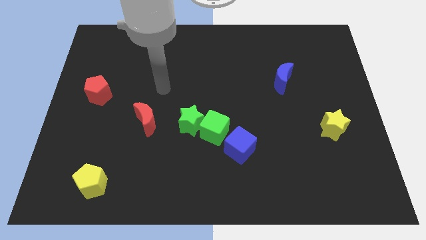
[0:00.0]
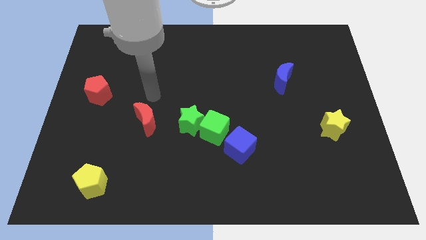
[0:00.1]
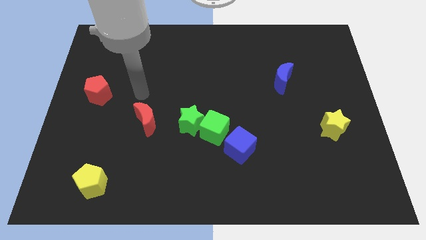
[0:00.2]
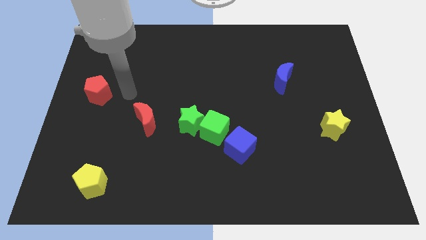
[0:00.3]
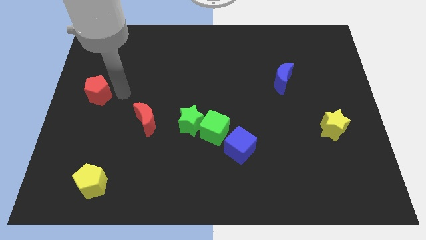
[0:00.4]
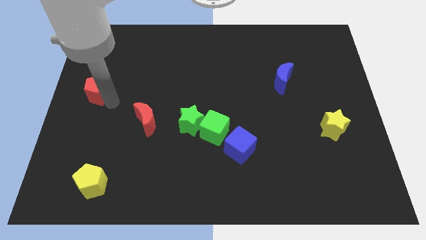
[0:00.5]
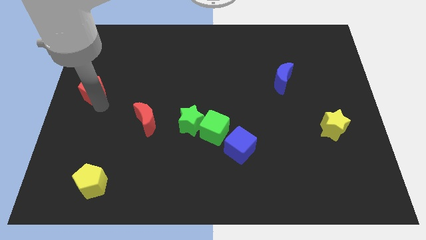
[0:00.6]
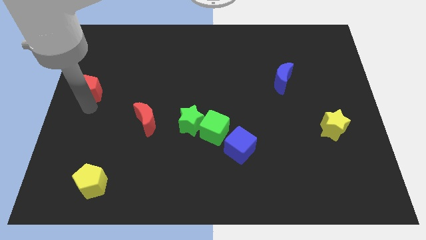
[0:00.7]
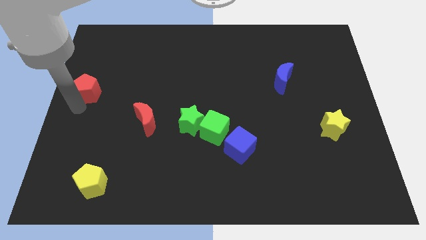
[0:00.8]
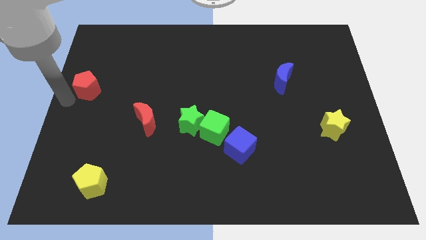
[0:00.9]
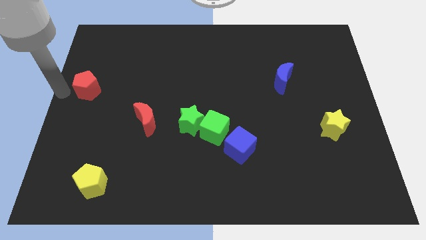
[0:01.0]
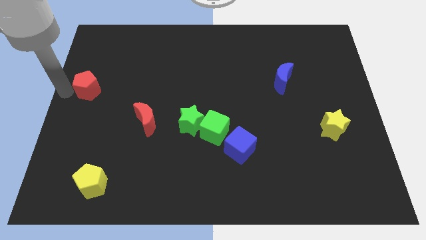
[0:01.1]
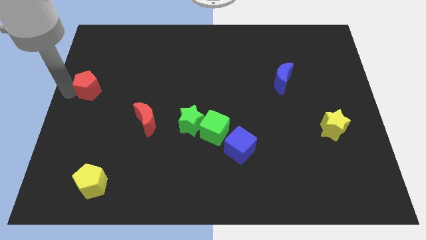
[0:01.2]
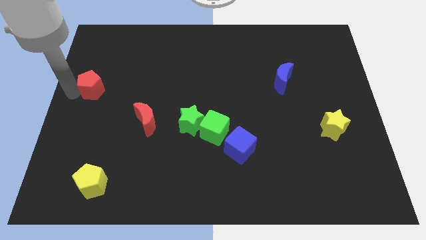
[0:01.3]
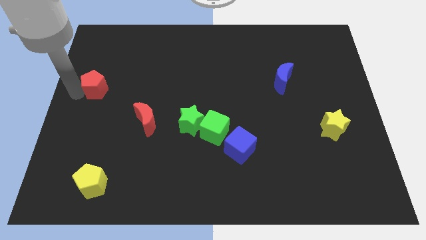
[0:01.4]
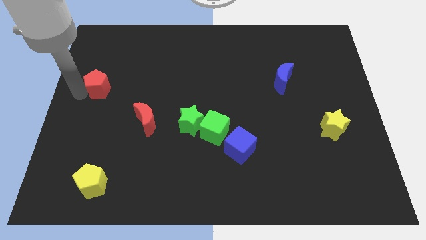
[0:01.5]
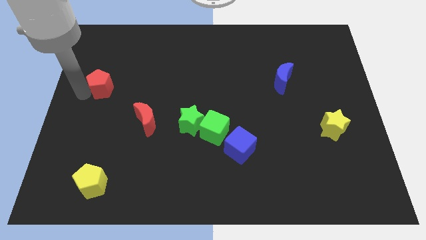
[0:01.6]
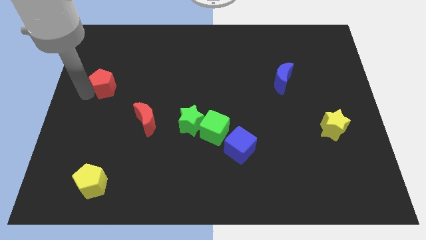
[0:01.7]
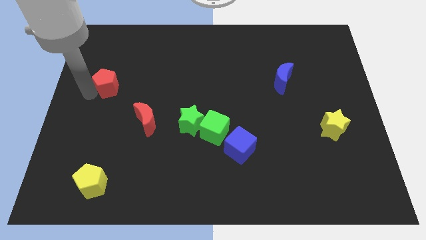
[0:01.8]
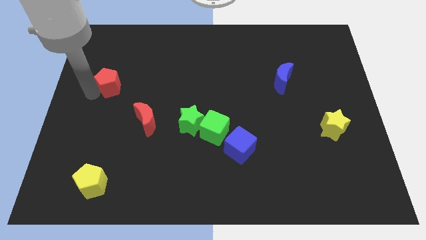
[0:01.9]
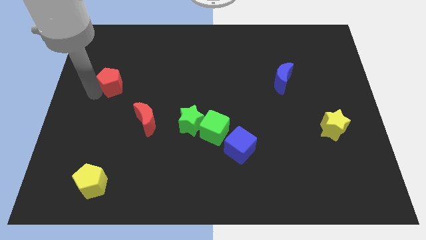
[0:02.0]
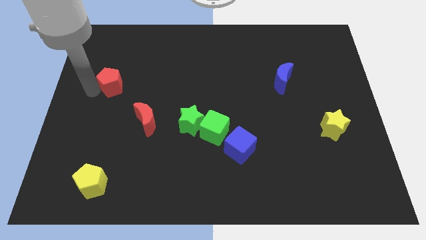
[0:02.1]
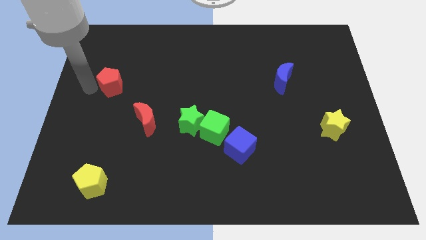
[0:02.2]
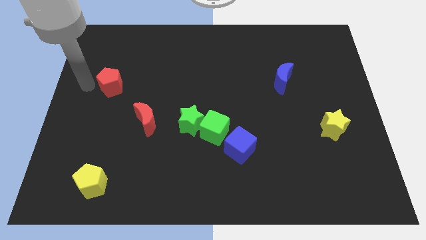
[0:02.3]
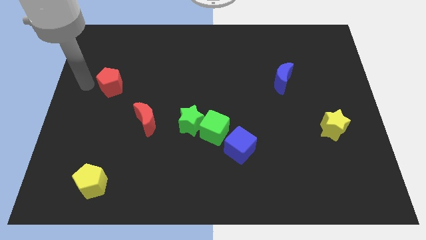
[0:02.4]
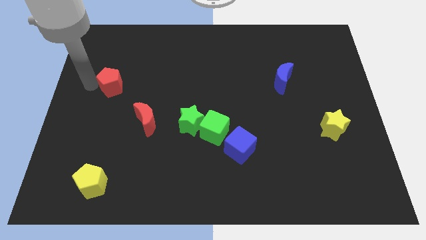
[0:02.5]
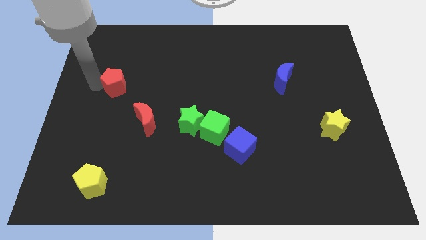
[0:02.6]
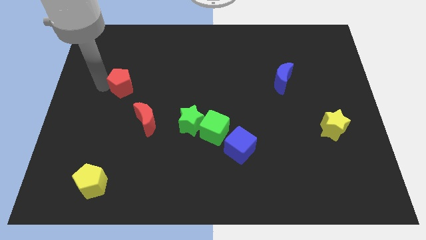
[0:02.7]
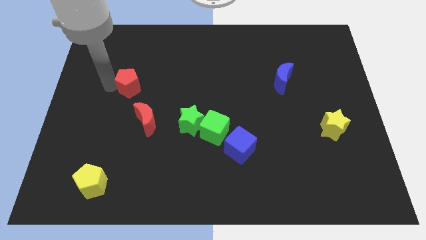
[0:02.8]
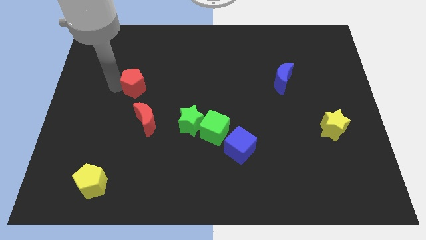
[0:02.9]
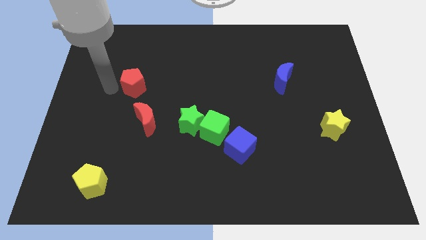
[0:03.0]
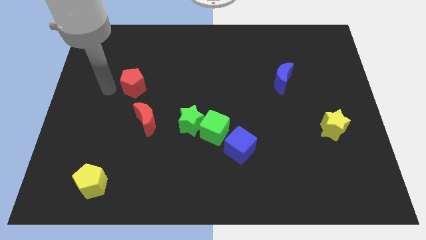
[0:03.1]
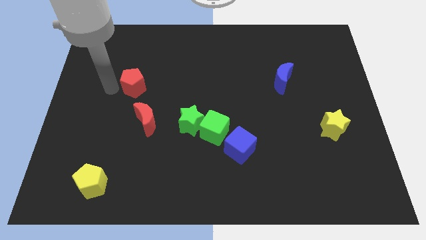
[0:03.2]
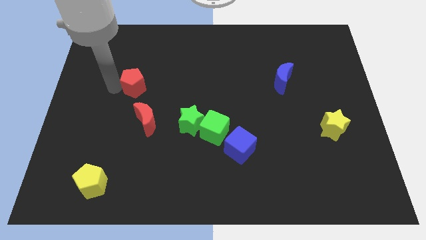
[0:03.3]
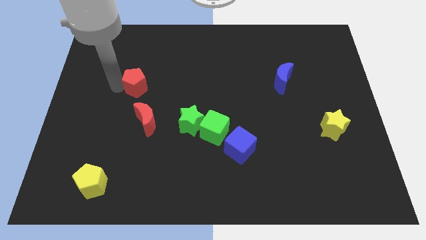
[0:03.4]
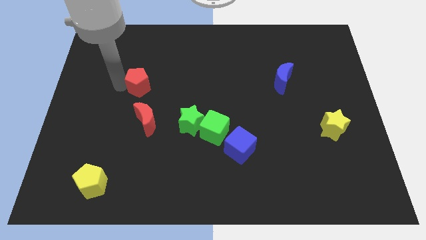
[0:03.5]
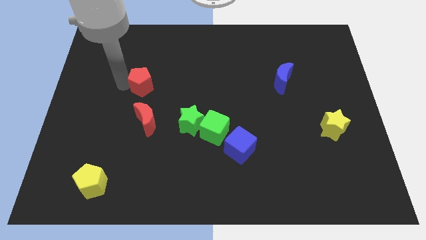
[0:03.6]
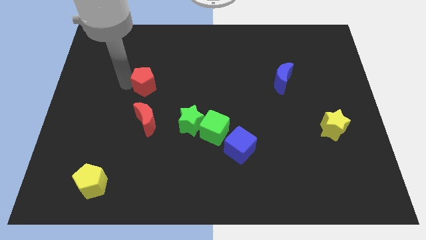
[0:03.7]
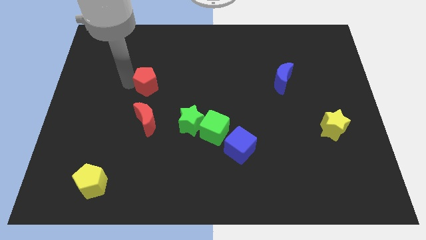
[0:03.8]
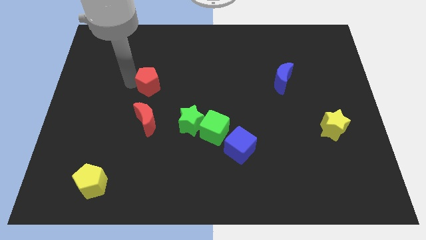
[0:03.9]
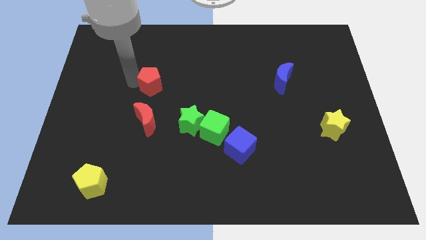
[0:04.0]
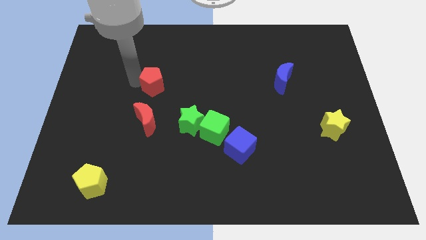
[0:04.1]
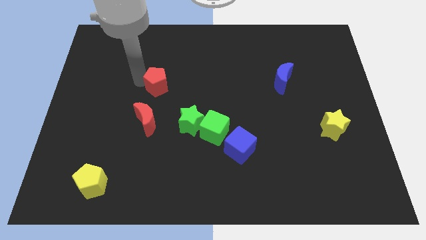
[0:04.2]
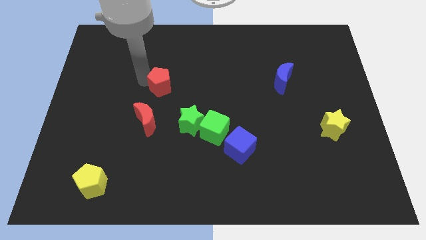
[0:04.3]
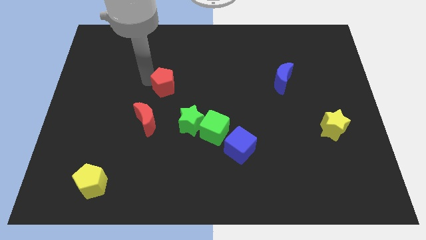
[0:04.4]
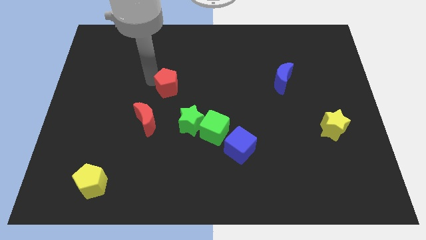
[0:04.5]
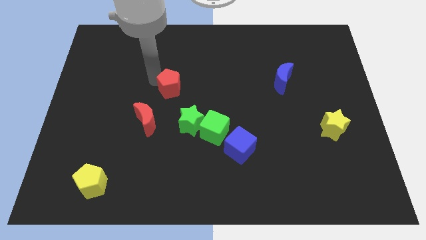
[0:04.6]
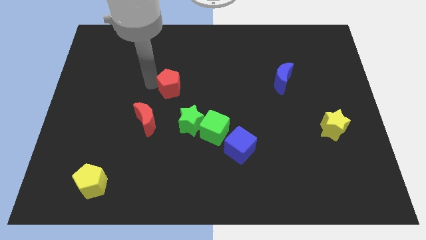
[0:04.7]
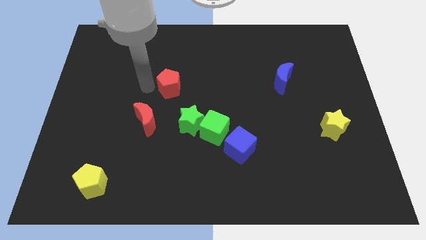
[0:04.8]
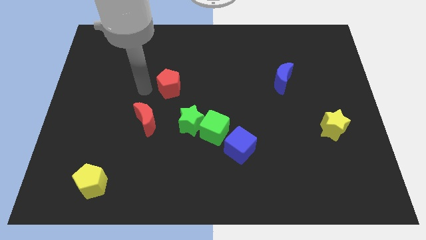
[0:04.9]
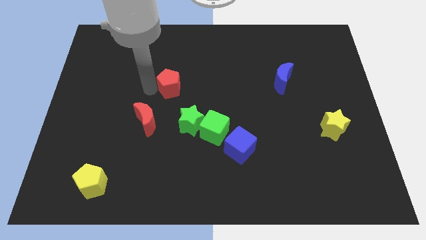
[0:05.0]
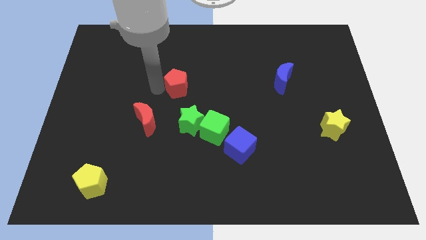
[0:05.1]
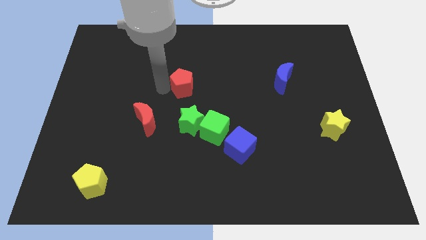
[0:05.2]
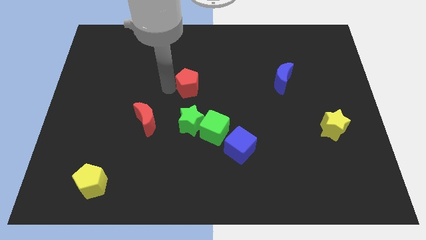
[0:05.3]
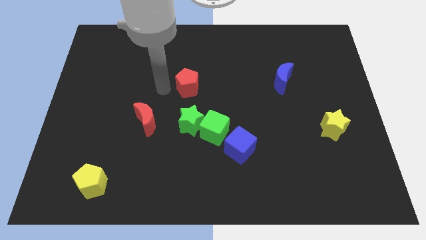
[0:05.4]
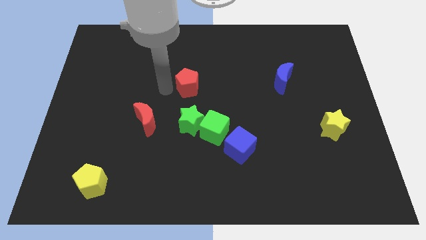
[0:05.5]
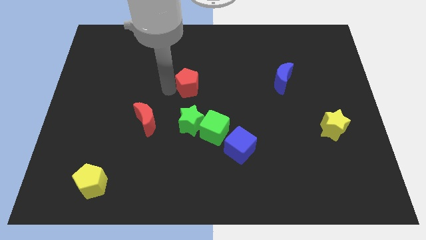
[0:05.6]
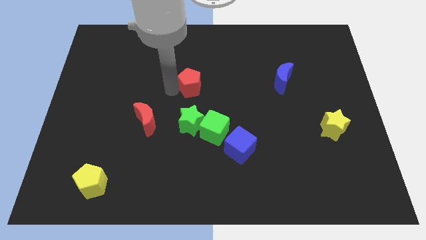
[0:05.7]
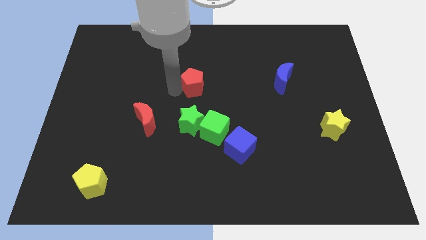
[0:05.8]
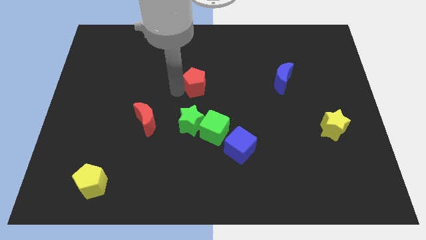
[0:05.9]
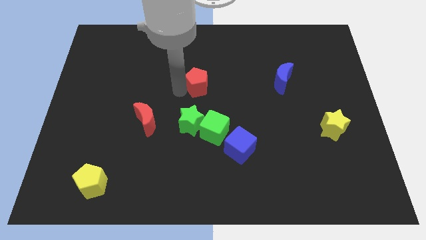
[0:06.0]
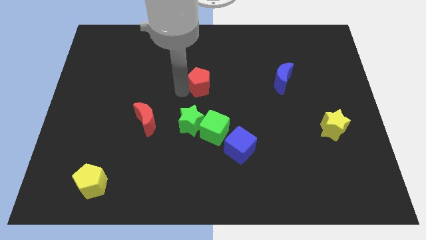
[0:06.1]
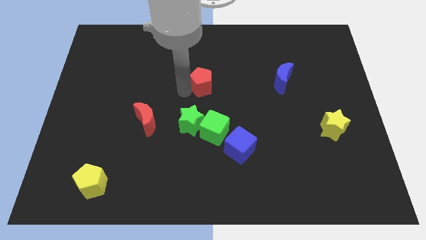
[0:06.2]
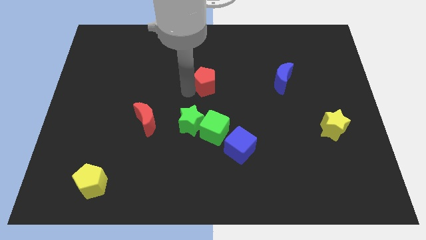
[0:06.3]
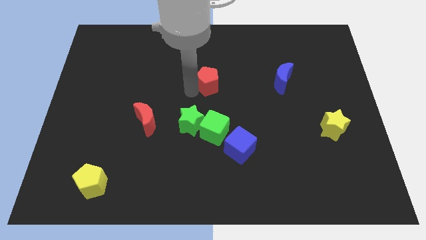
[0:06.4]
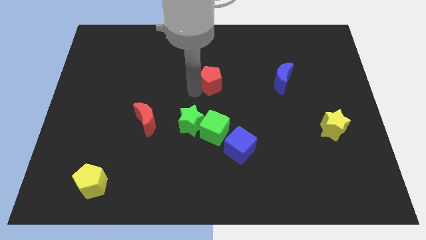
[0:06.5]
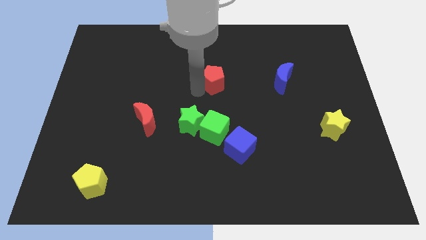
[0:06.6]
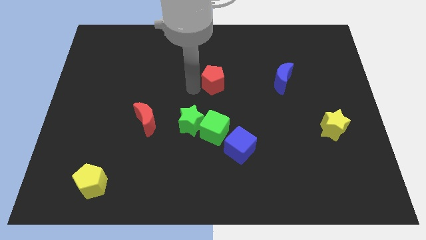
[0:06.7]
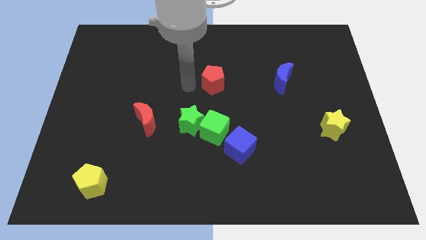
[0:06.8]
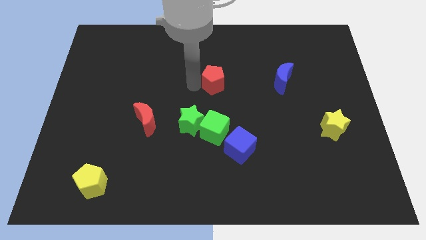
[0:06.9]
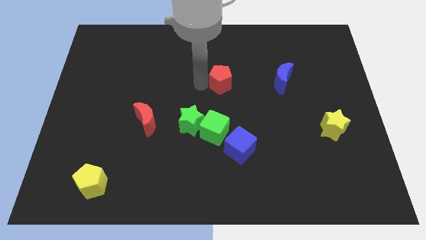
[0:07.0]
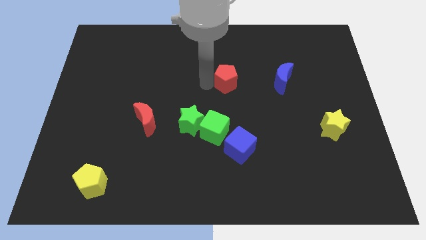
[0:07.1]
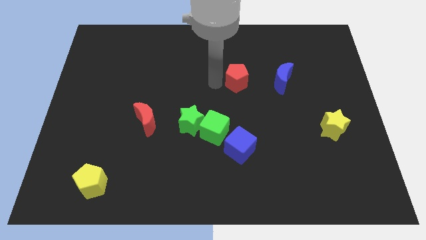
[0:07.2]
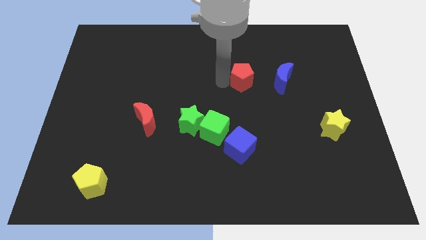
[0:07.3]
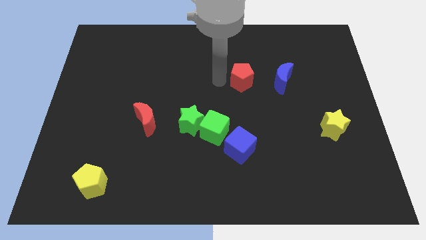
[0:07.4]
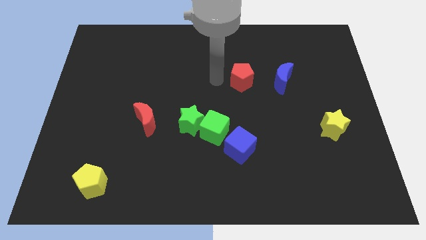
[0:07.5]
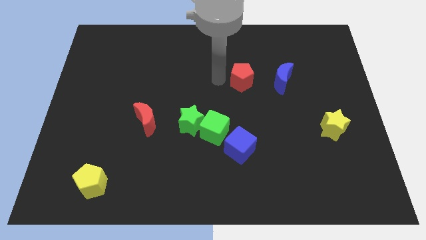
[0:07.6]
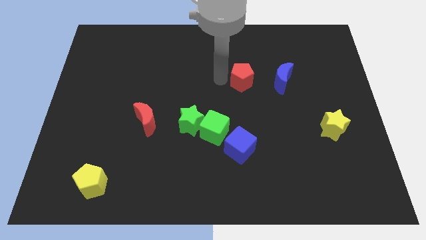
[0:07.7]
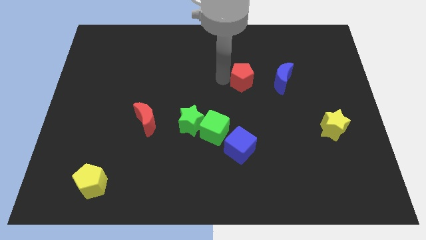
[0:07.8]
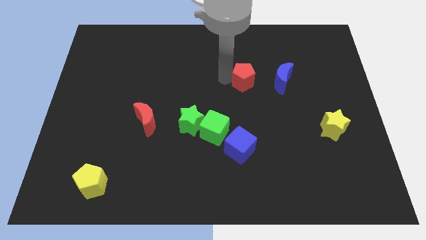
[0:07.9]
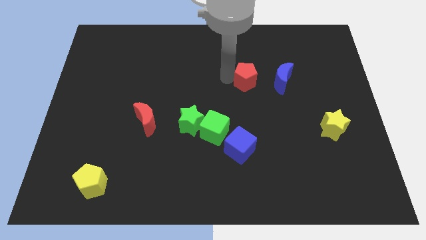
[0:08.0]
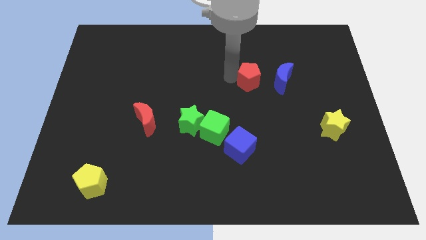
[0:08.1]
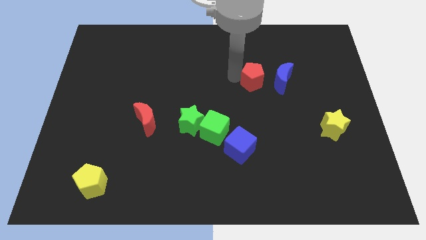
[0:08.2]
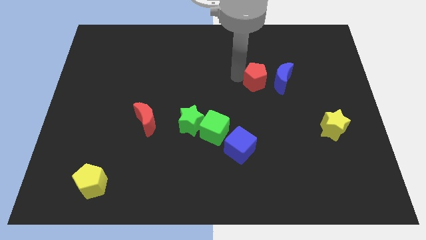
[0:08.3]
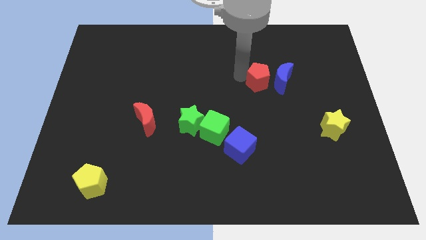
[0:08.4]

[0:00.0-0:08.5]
push the red pentagon towards the blue moon
